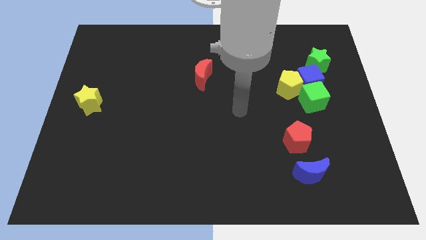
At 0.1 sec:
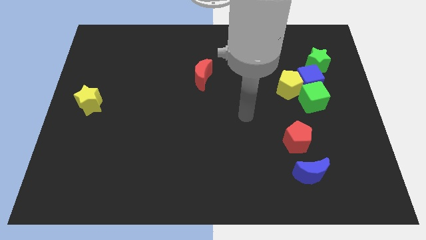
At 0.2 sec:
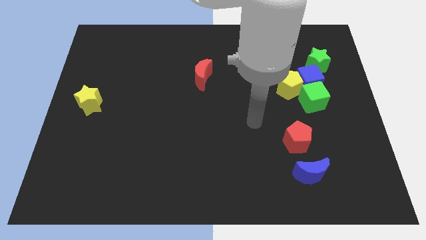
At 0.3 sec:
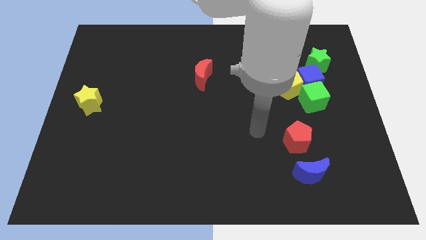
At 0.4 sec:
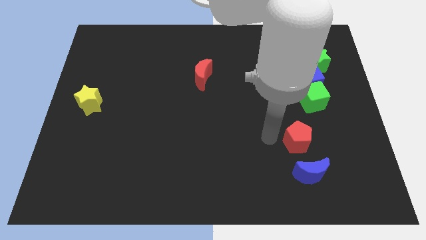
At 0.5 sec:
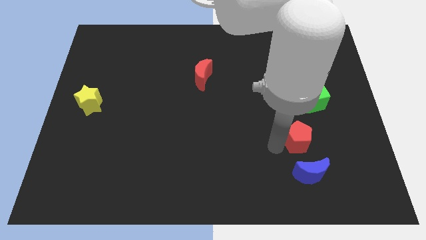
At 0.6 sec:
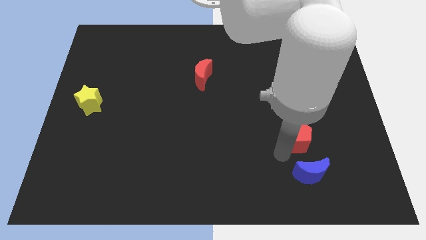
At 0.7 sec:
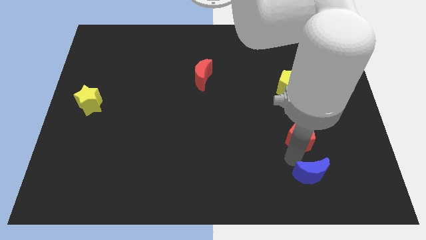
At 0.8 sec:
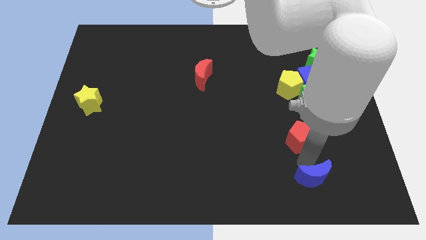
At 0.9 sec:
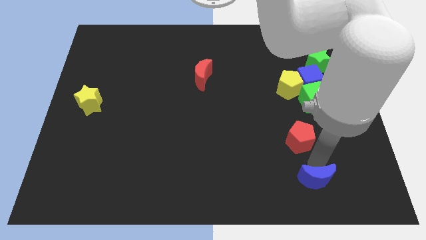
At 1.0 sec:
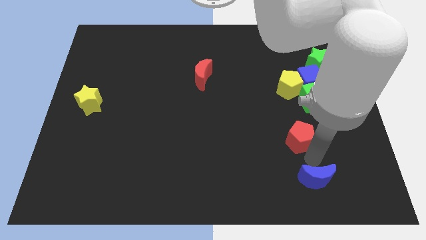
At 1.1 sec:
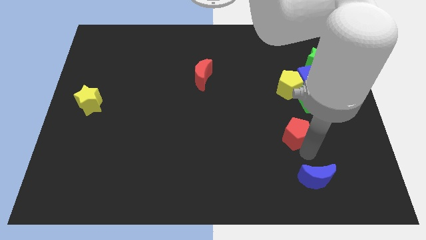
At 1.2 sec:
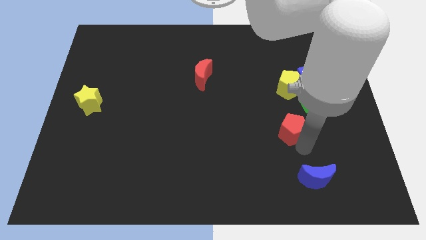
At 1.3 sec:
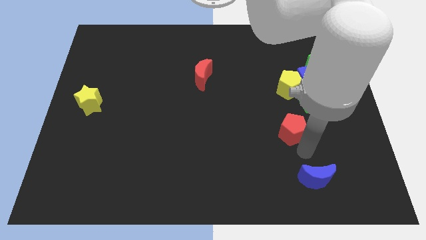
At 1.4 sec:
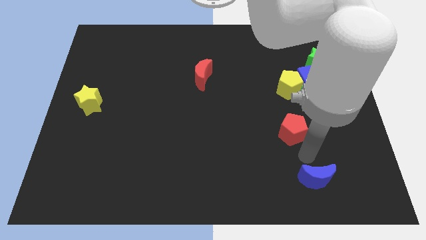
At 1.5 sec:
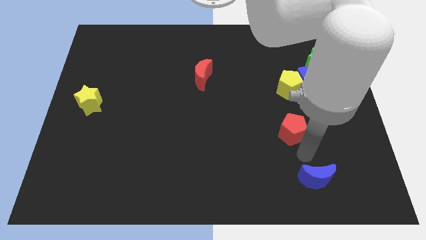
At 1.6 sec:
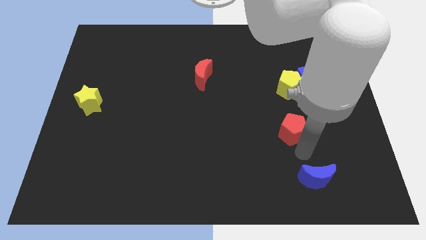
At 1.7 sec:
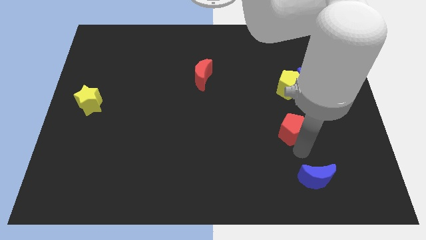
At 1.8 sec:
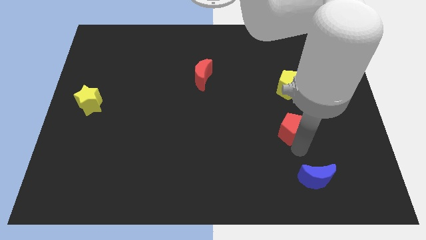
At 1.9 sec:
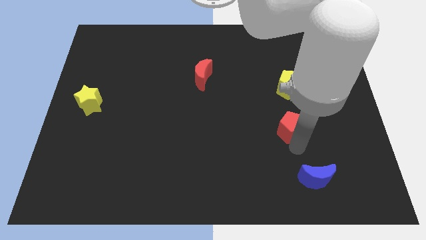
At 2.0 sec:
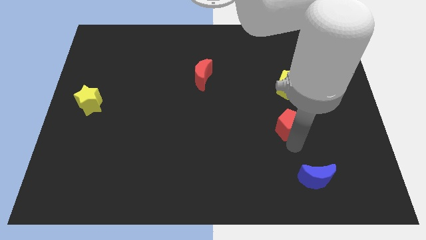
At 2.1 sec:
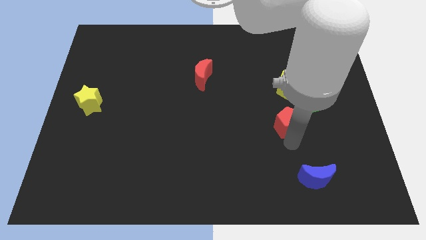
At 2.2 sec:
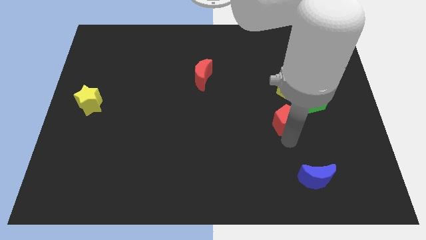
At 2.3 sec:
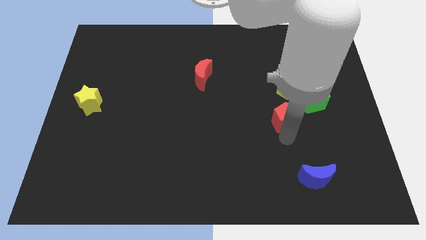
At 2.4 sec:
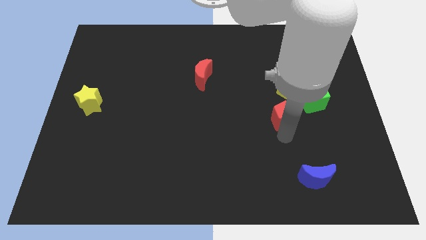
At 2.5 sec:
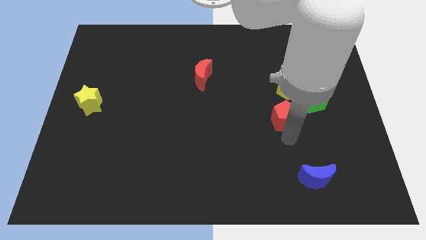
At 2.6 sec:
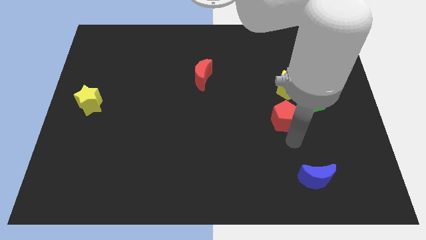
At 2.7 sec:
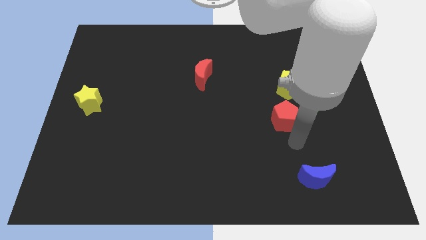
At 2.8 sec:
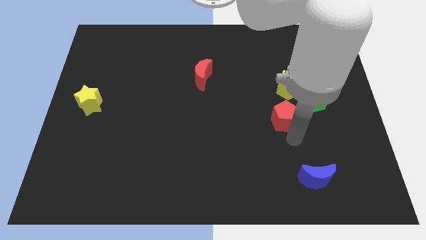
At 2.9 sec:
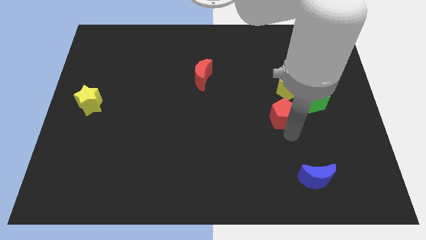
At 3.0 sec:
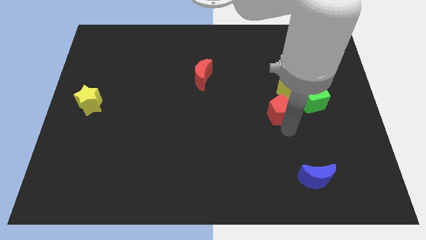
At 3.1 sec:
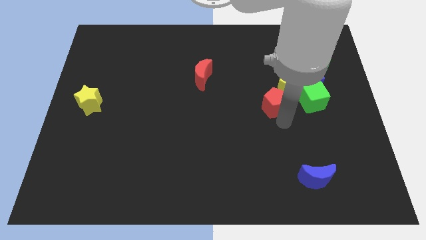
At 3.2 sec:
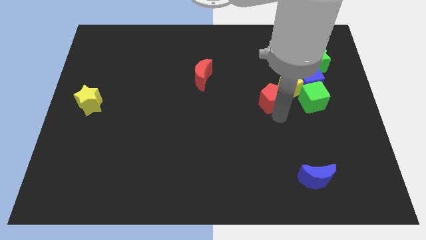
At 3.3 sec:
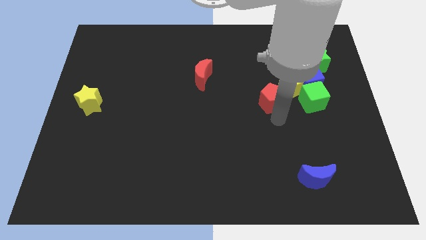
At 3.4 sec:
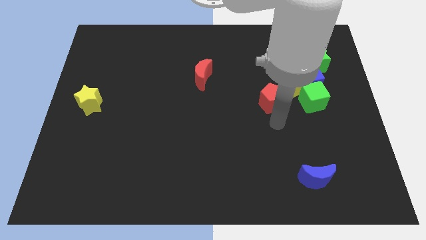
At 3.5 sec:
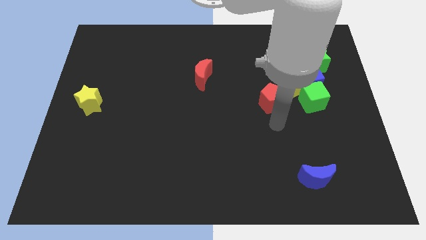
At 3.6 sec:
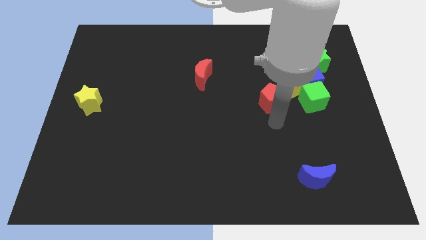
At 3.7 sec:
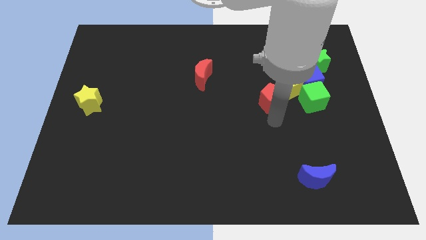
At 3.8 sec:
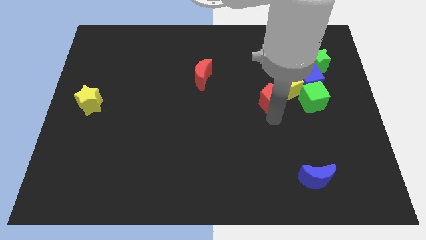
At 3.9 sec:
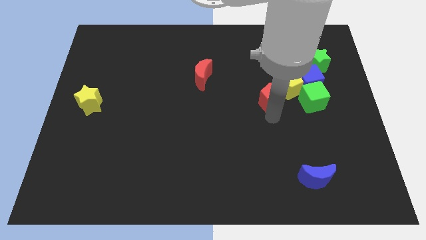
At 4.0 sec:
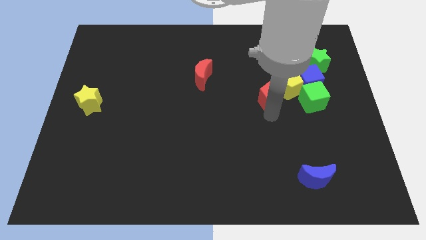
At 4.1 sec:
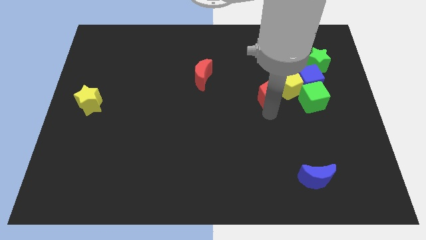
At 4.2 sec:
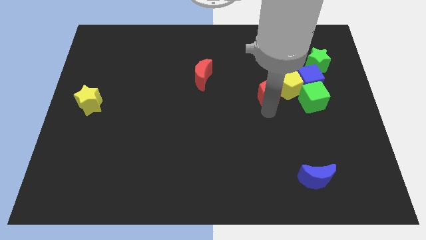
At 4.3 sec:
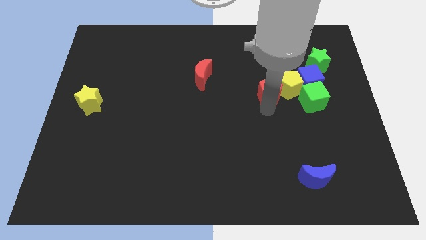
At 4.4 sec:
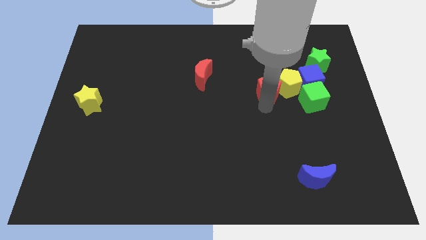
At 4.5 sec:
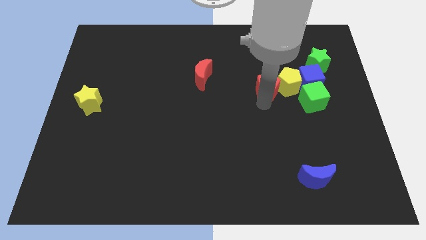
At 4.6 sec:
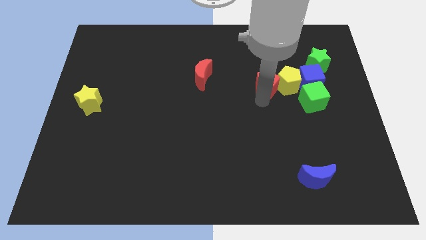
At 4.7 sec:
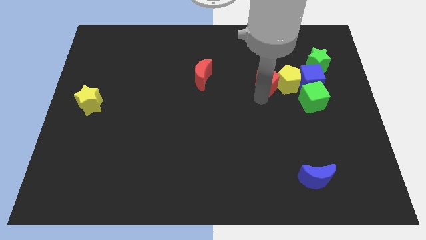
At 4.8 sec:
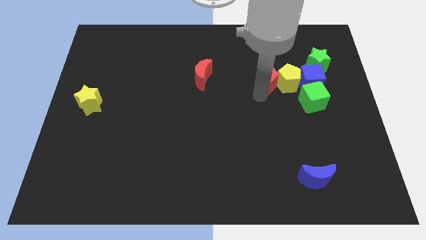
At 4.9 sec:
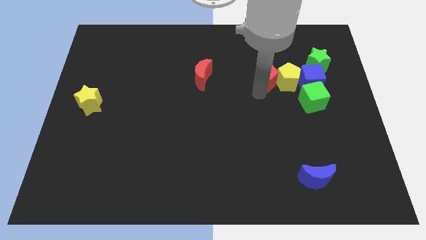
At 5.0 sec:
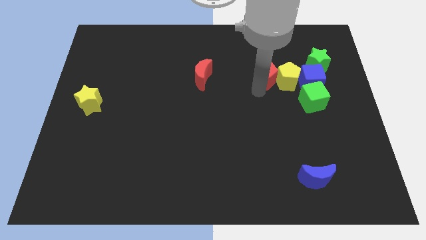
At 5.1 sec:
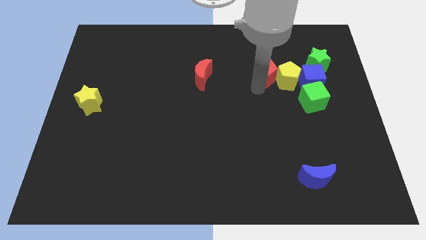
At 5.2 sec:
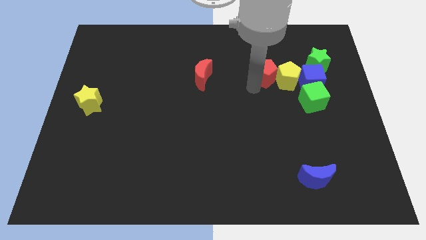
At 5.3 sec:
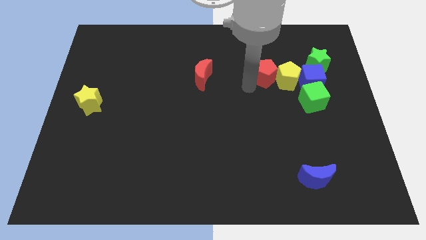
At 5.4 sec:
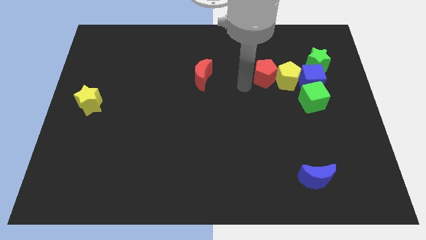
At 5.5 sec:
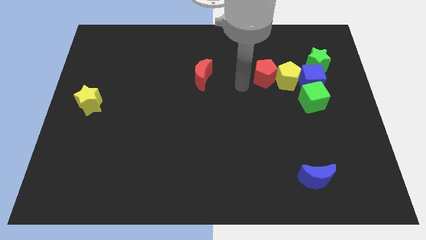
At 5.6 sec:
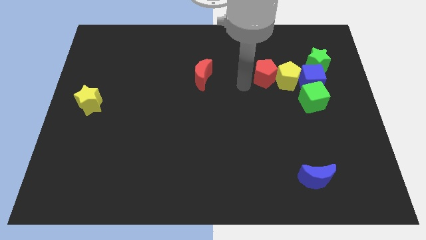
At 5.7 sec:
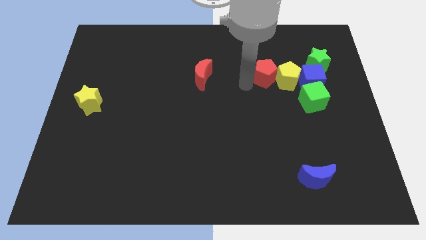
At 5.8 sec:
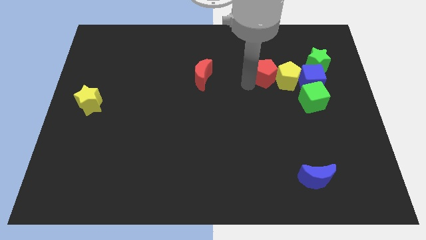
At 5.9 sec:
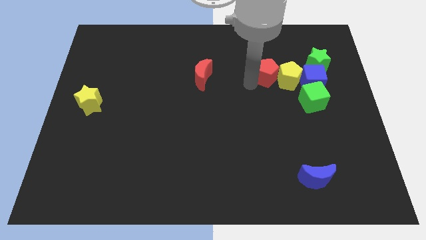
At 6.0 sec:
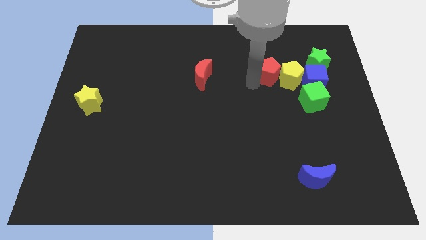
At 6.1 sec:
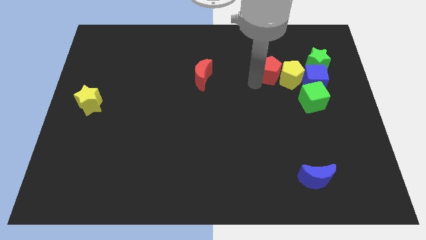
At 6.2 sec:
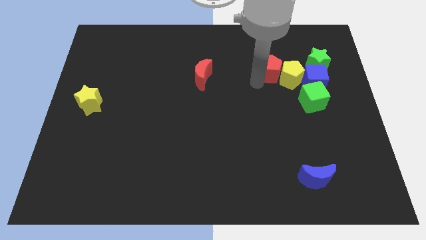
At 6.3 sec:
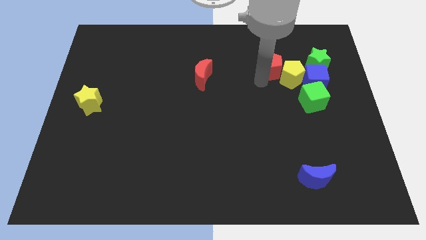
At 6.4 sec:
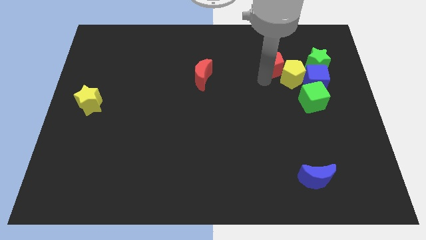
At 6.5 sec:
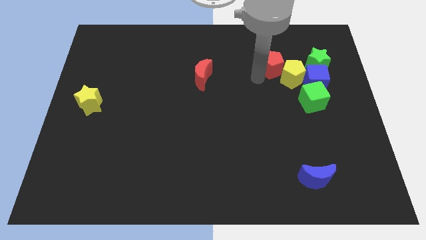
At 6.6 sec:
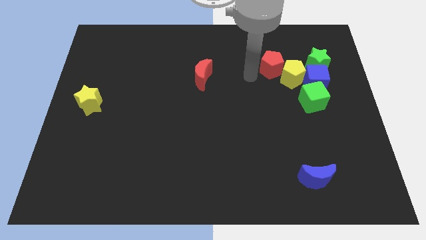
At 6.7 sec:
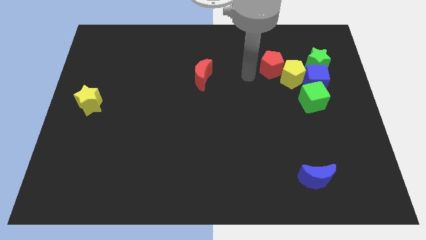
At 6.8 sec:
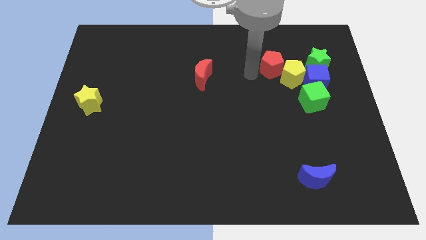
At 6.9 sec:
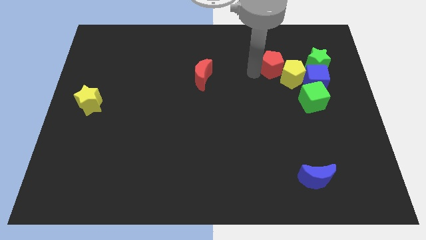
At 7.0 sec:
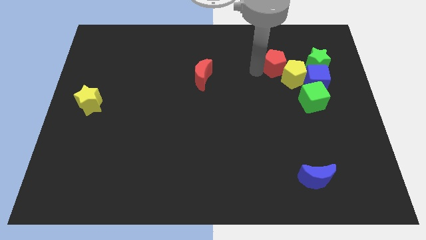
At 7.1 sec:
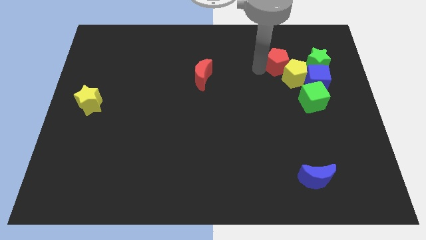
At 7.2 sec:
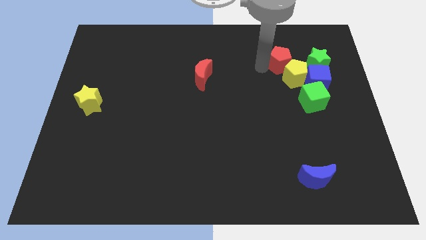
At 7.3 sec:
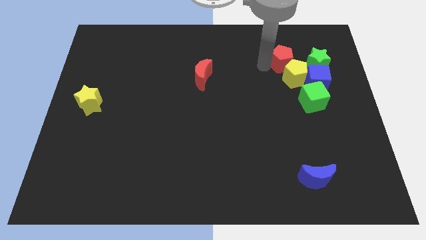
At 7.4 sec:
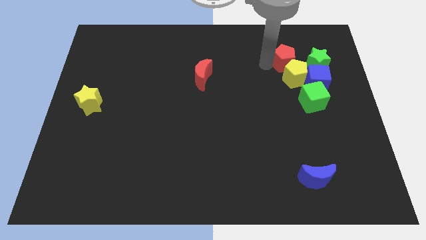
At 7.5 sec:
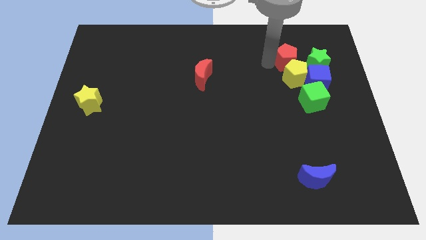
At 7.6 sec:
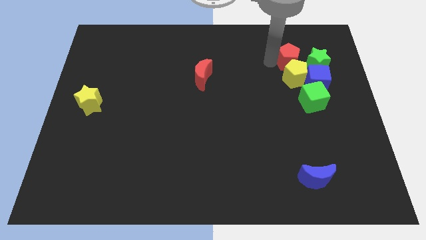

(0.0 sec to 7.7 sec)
push the red pentagon to the top side of the green cube
